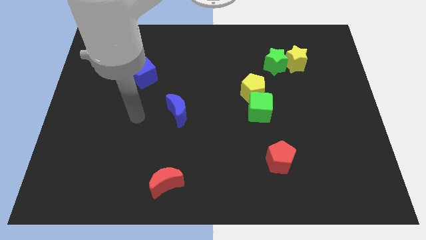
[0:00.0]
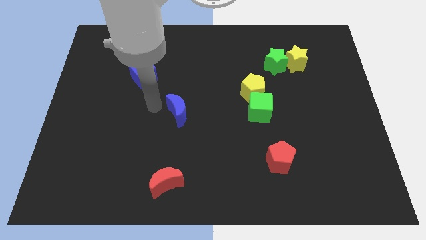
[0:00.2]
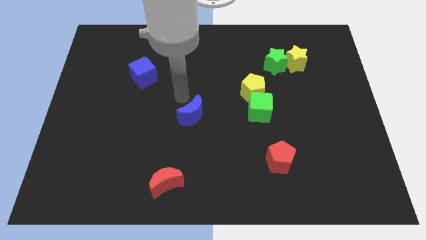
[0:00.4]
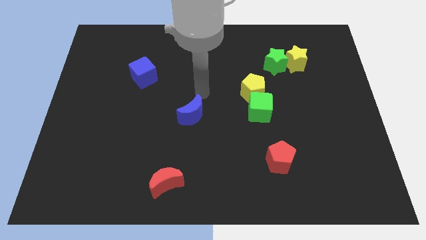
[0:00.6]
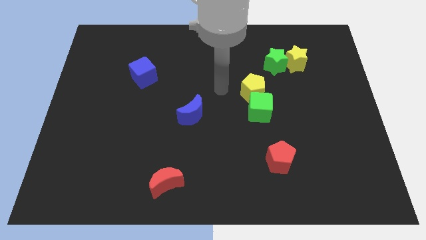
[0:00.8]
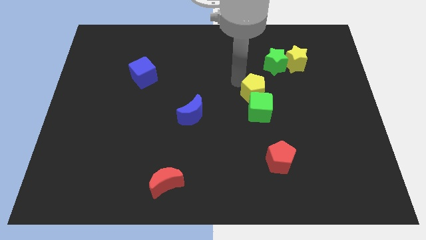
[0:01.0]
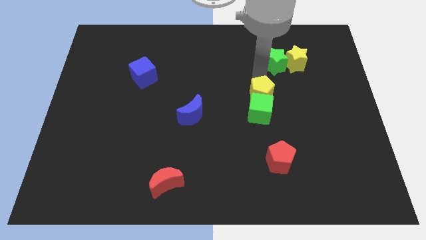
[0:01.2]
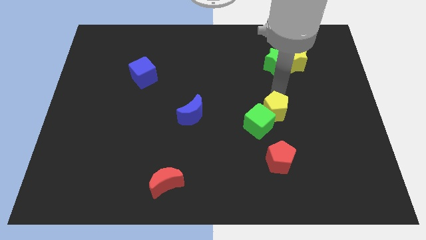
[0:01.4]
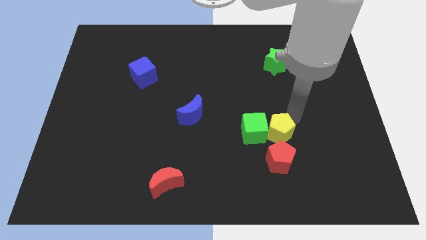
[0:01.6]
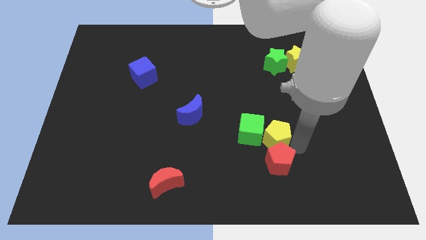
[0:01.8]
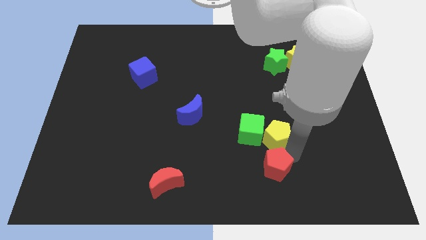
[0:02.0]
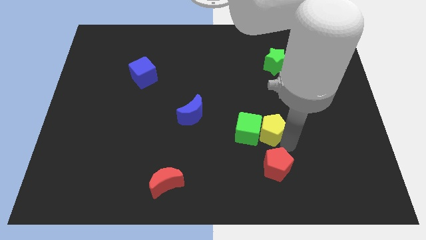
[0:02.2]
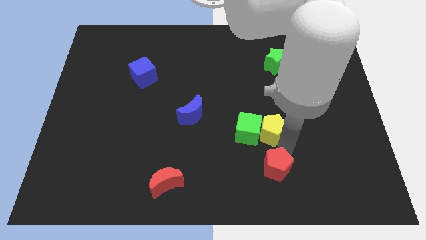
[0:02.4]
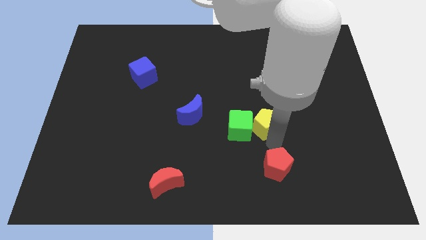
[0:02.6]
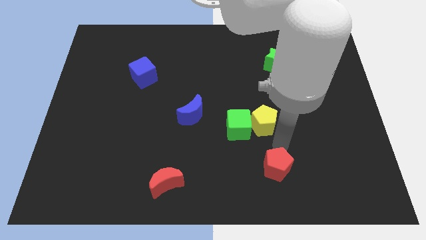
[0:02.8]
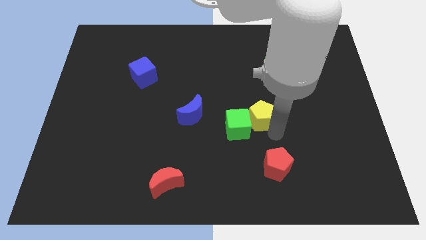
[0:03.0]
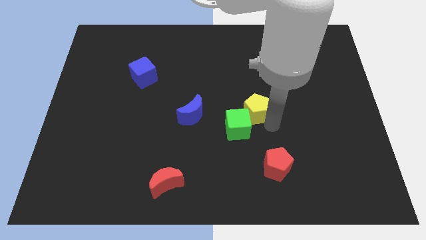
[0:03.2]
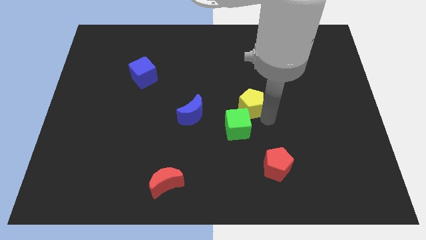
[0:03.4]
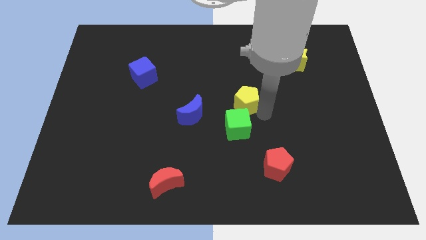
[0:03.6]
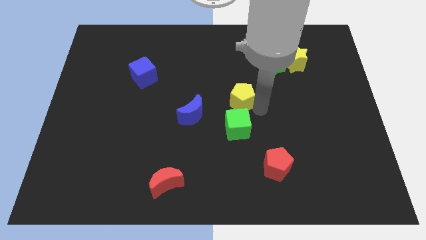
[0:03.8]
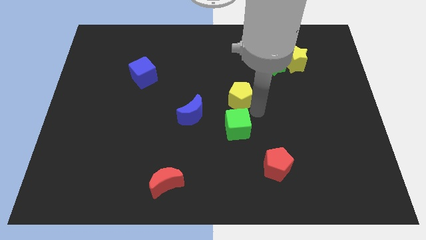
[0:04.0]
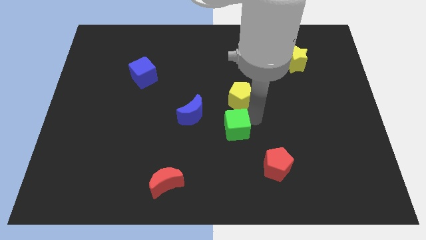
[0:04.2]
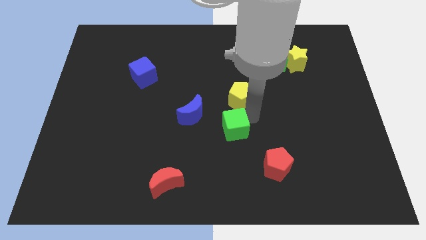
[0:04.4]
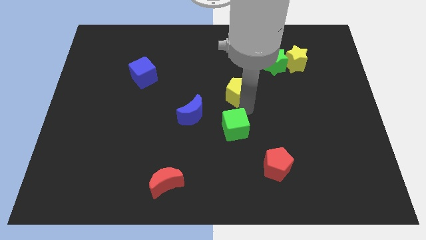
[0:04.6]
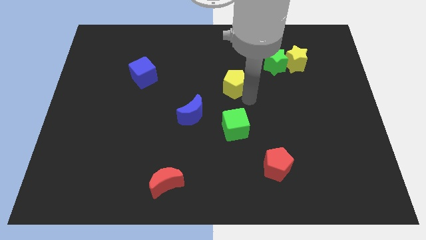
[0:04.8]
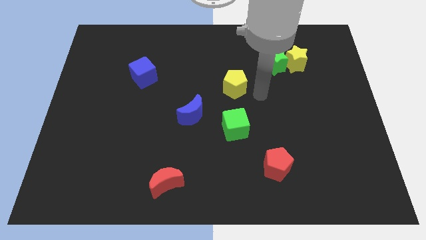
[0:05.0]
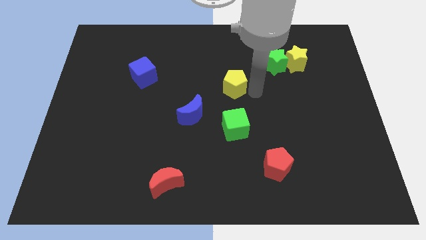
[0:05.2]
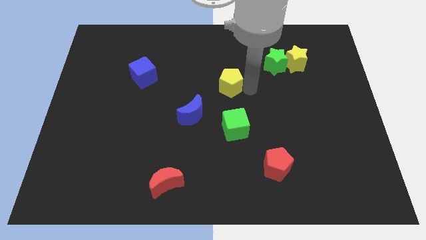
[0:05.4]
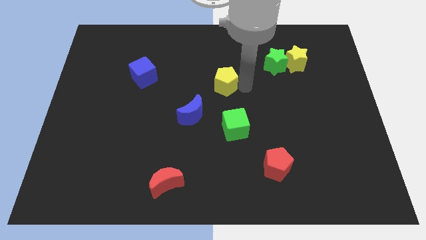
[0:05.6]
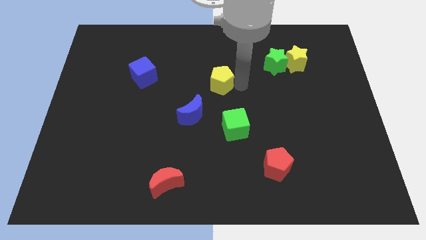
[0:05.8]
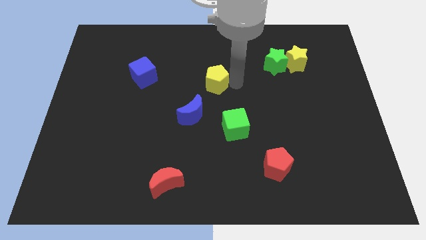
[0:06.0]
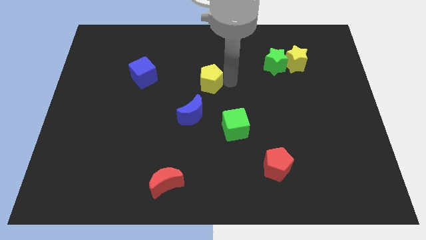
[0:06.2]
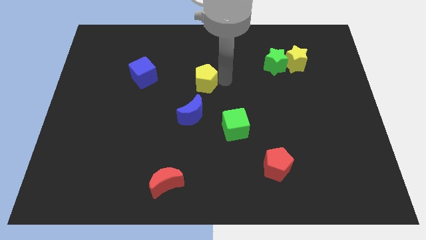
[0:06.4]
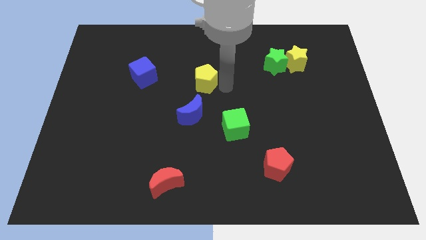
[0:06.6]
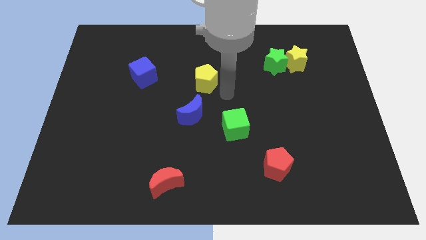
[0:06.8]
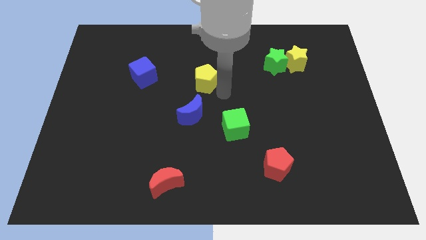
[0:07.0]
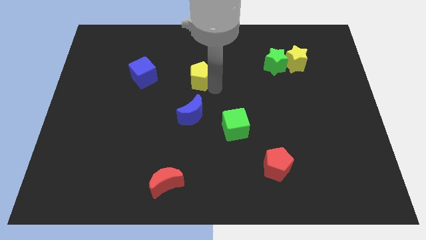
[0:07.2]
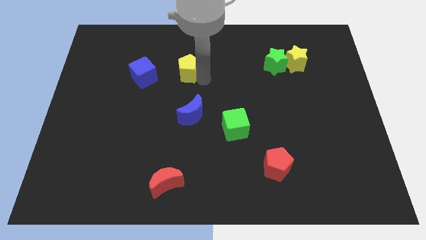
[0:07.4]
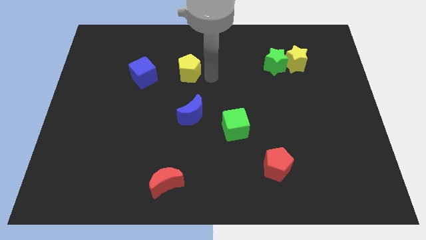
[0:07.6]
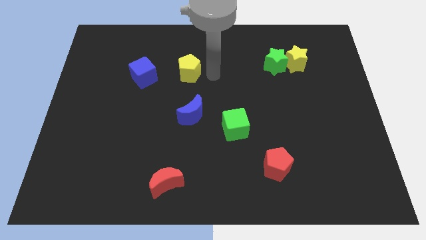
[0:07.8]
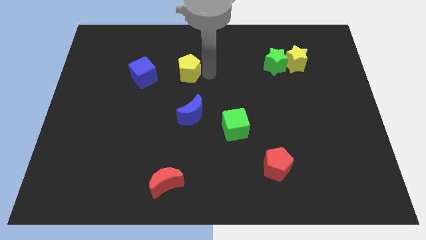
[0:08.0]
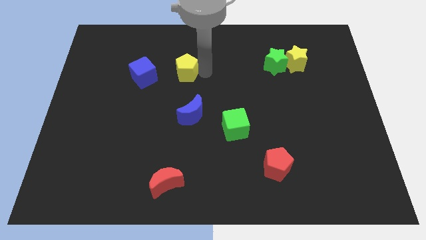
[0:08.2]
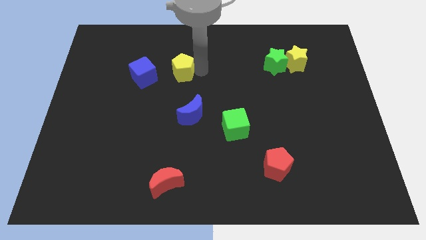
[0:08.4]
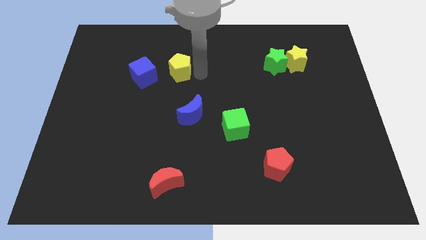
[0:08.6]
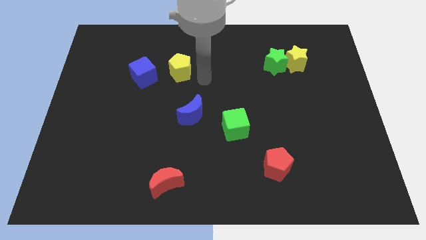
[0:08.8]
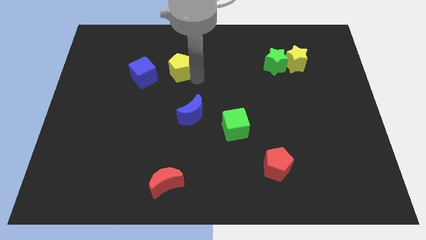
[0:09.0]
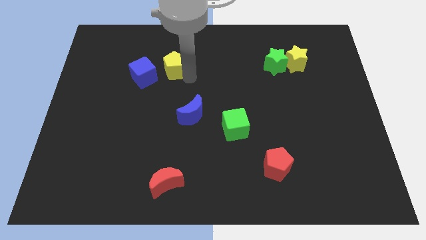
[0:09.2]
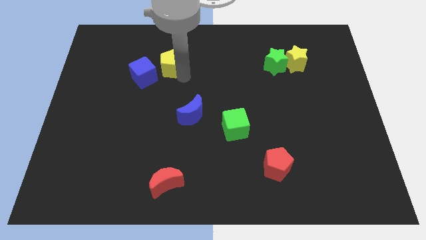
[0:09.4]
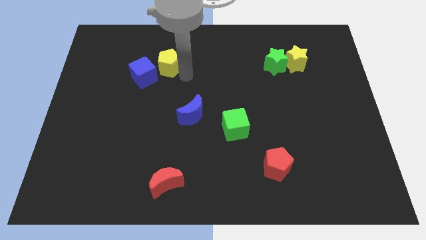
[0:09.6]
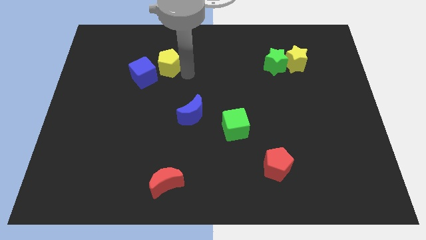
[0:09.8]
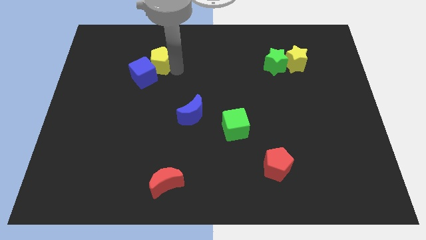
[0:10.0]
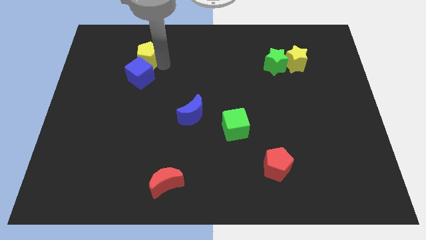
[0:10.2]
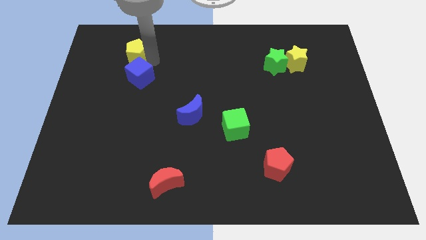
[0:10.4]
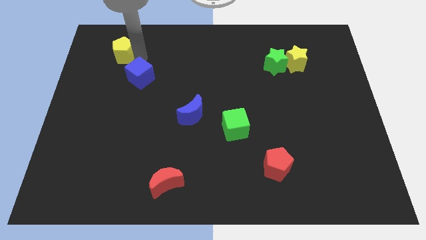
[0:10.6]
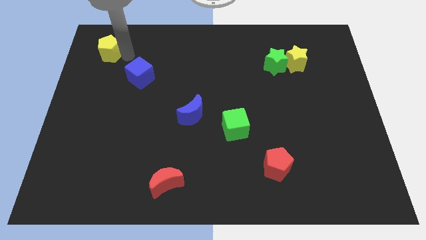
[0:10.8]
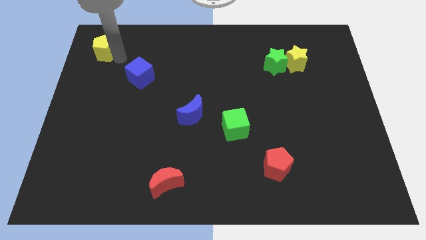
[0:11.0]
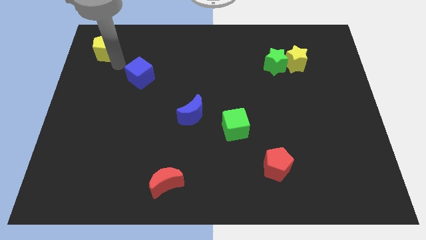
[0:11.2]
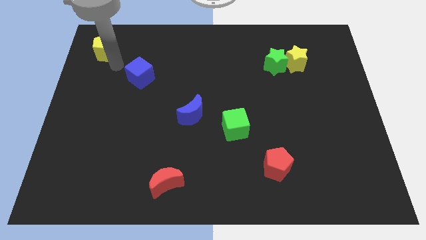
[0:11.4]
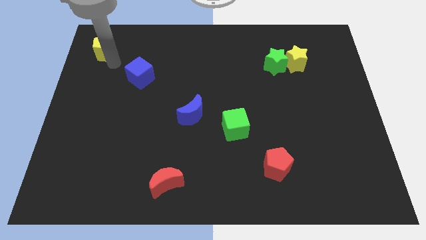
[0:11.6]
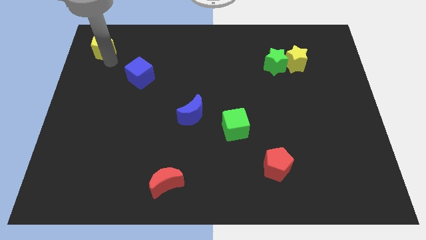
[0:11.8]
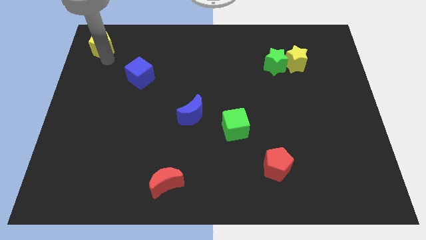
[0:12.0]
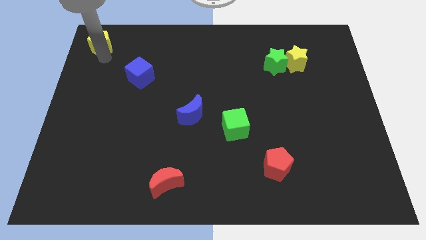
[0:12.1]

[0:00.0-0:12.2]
slide the yellow pentagon to the top left of the board
